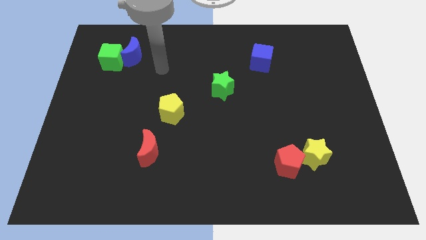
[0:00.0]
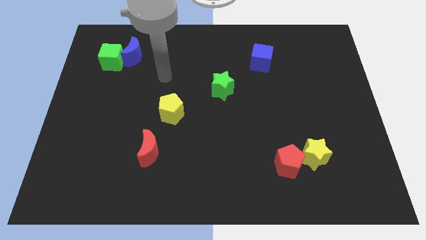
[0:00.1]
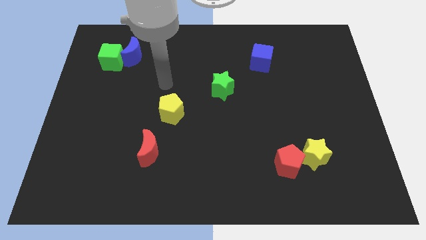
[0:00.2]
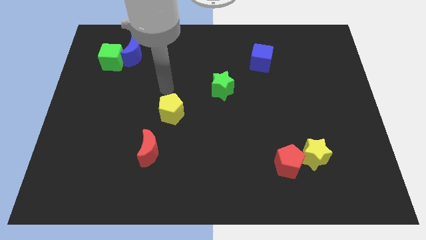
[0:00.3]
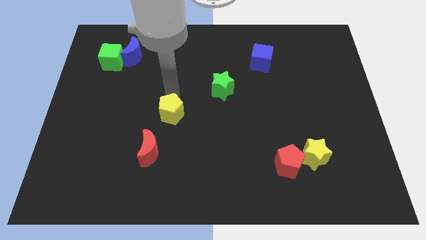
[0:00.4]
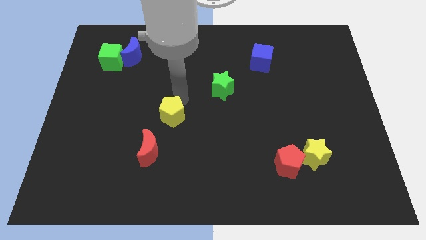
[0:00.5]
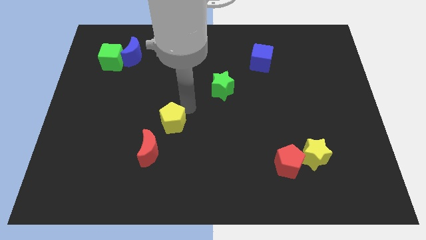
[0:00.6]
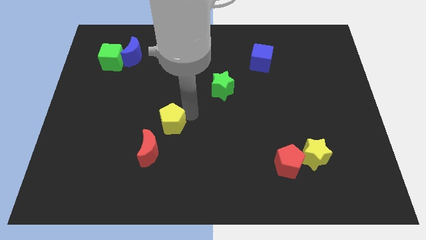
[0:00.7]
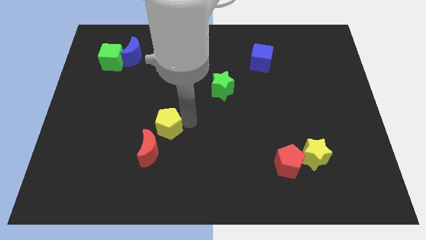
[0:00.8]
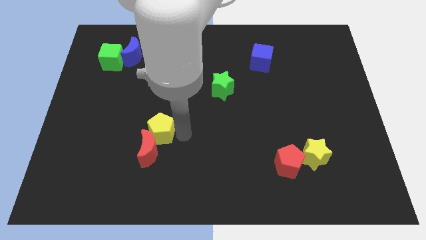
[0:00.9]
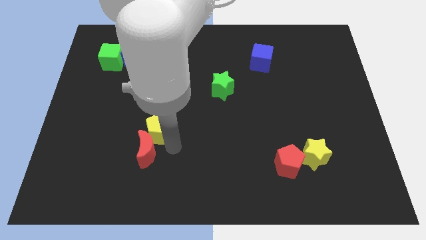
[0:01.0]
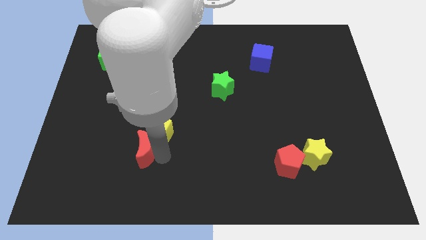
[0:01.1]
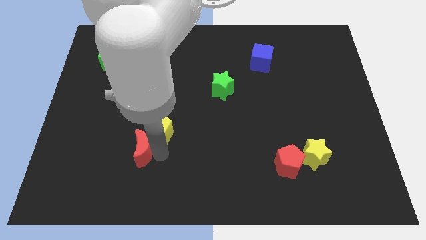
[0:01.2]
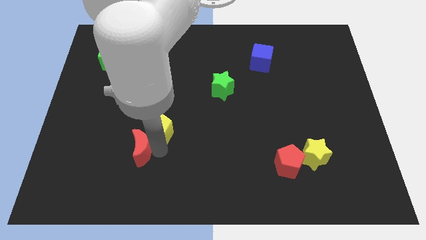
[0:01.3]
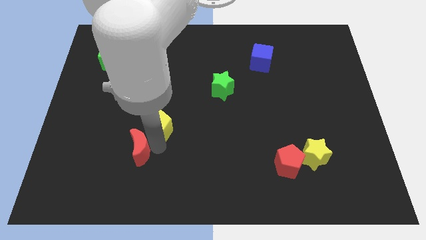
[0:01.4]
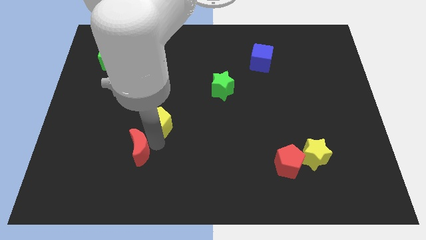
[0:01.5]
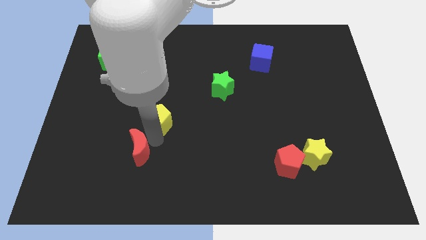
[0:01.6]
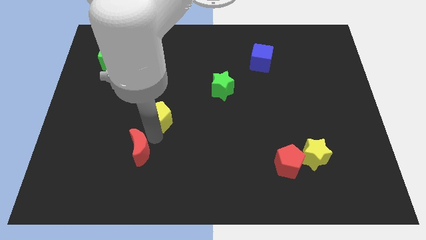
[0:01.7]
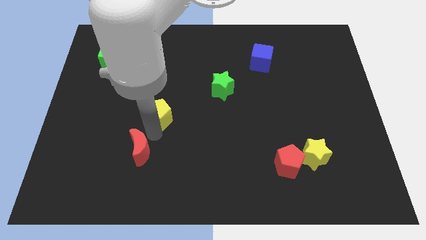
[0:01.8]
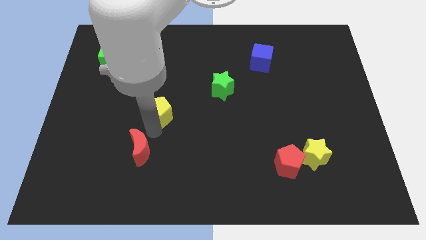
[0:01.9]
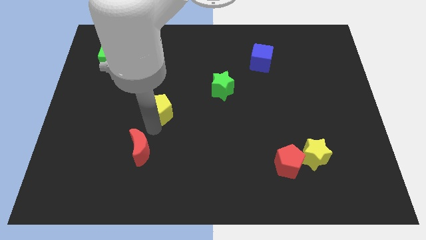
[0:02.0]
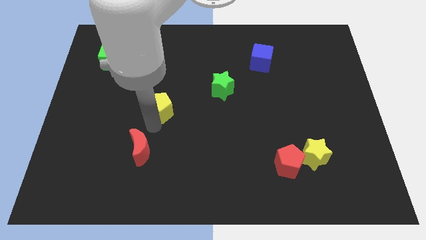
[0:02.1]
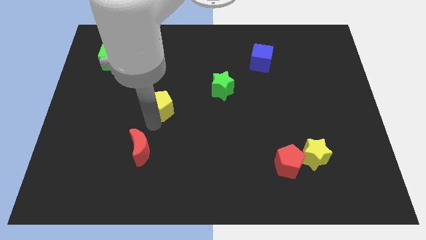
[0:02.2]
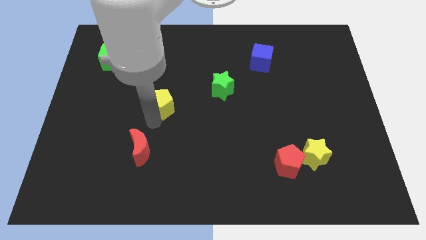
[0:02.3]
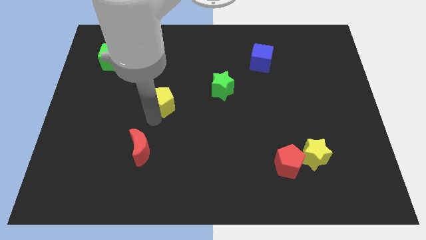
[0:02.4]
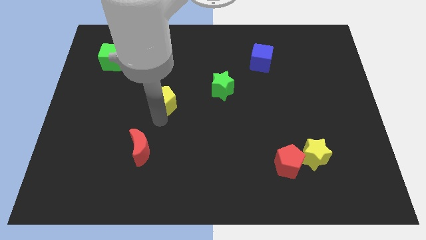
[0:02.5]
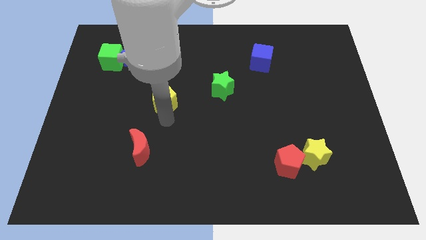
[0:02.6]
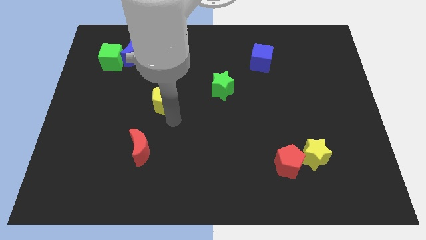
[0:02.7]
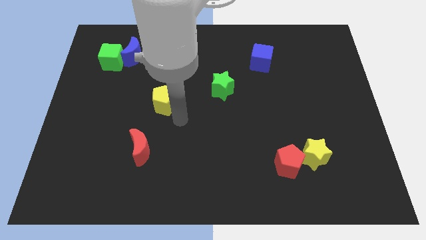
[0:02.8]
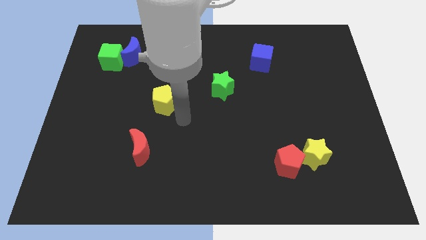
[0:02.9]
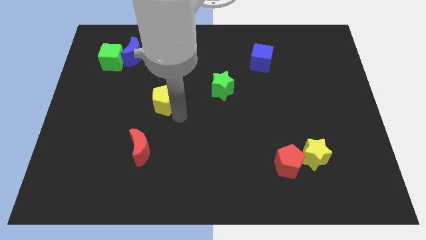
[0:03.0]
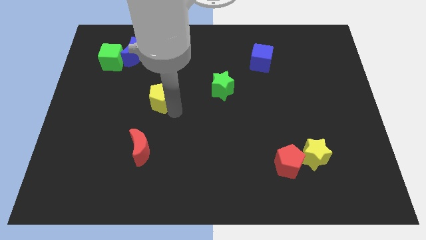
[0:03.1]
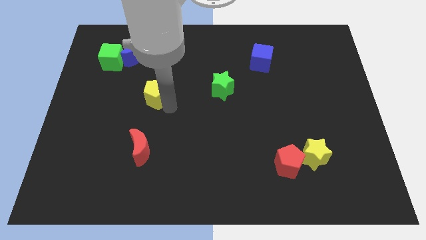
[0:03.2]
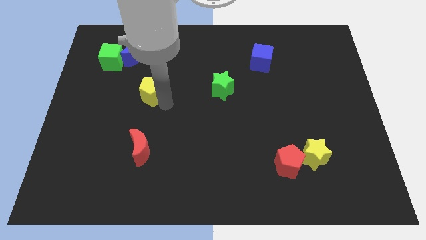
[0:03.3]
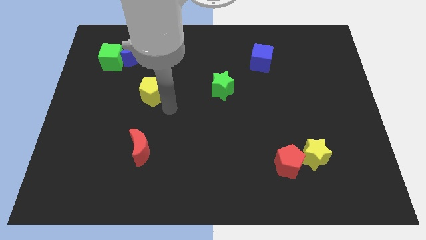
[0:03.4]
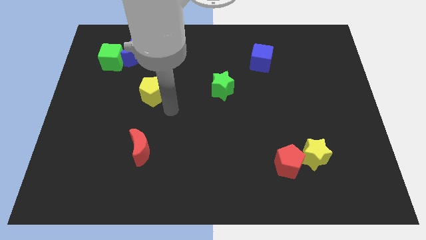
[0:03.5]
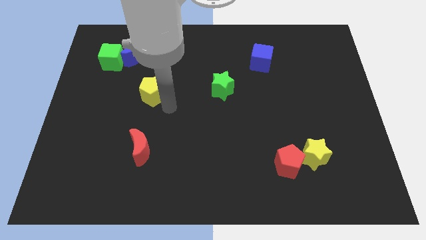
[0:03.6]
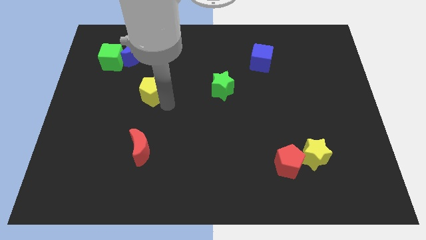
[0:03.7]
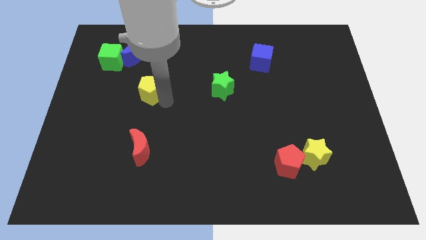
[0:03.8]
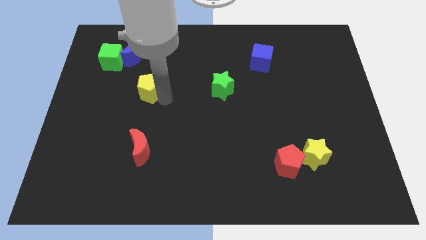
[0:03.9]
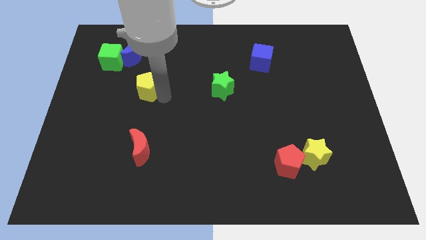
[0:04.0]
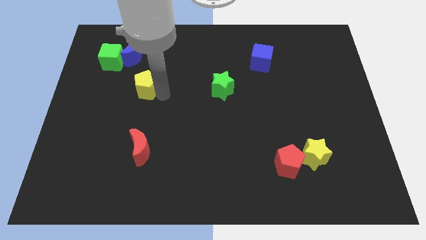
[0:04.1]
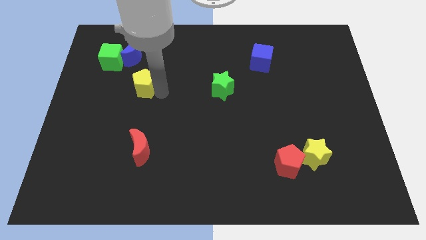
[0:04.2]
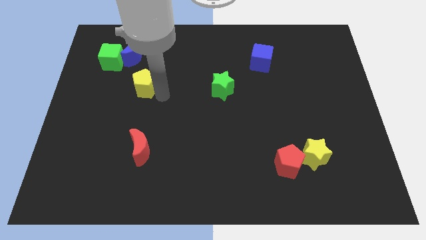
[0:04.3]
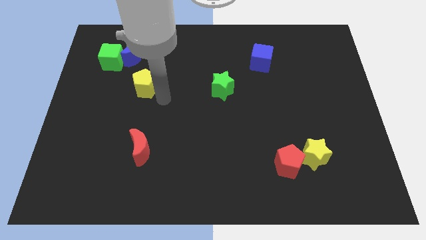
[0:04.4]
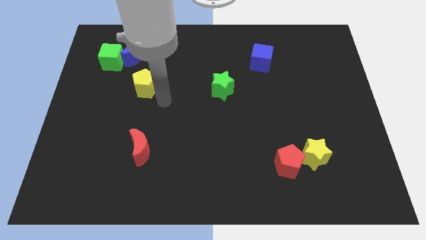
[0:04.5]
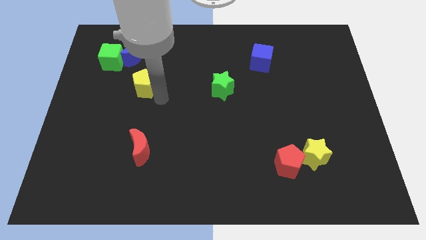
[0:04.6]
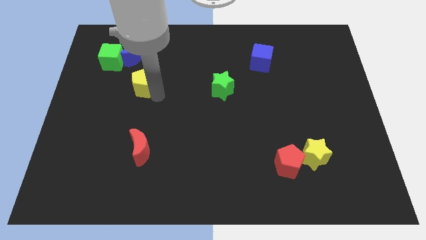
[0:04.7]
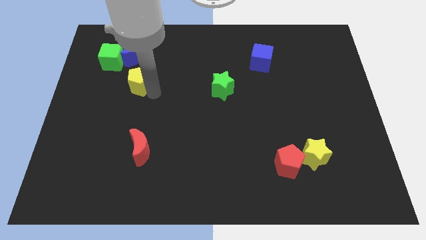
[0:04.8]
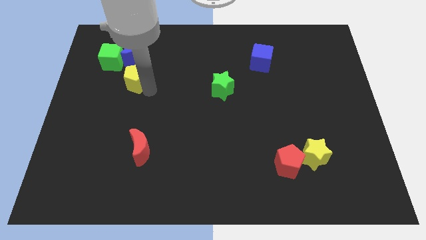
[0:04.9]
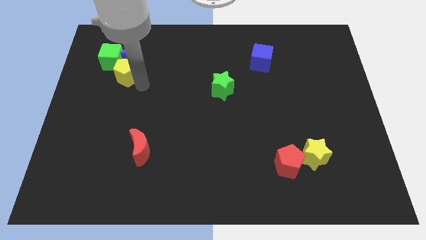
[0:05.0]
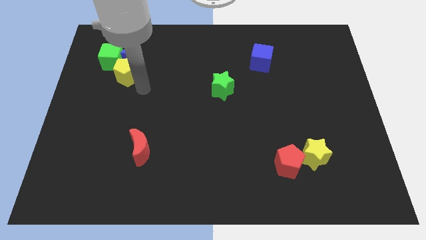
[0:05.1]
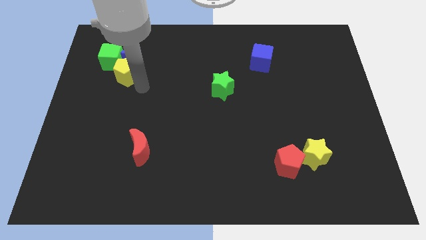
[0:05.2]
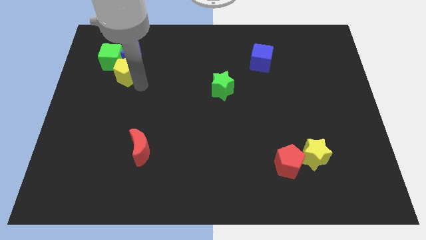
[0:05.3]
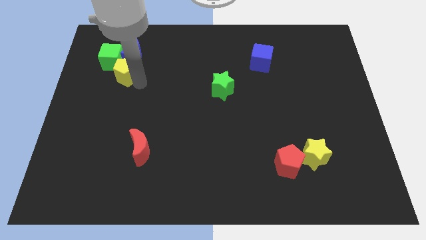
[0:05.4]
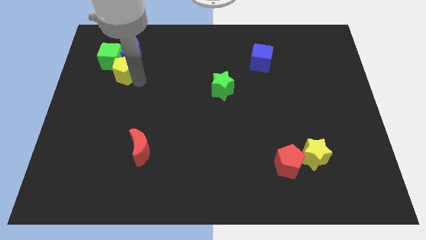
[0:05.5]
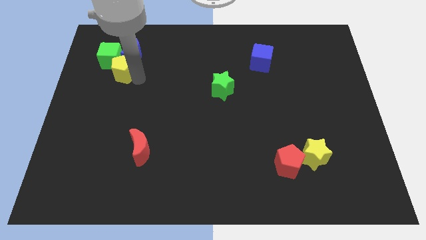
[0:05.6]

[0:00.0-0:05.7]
push the yellow pentagon to the green cube

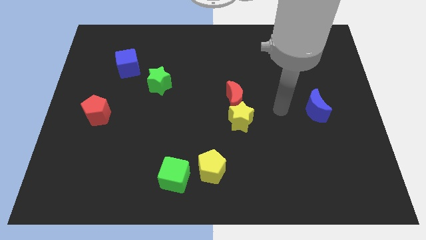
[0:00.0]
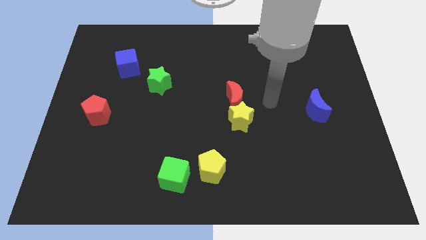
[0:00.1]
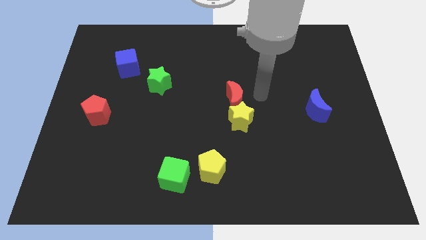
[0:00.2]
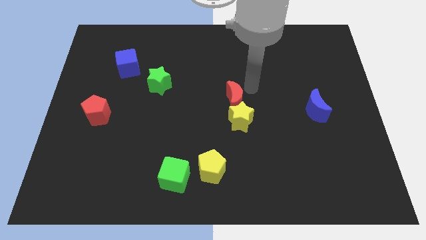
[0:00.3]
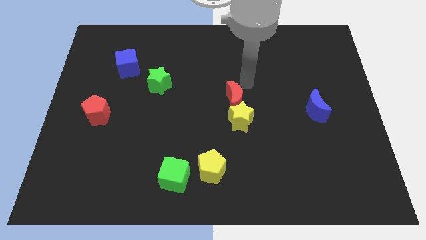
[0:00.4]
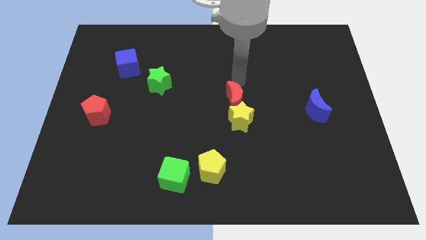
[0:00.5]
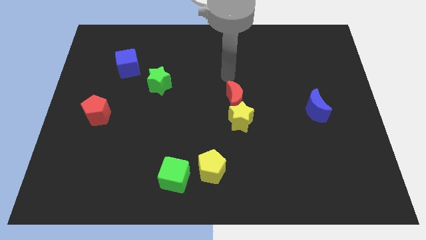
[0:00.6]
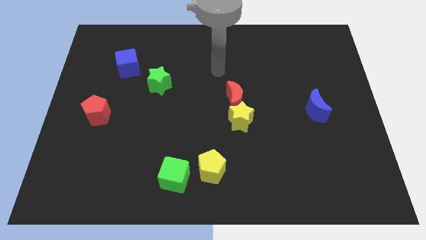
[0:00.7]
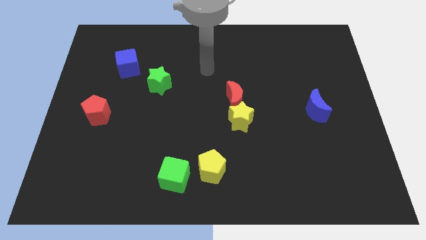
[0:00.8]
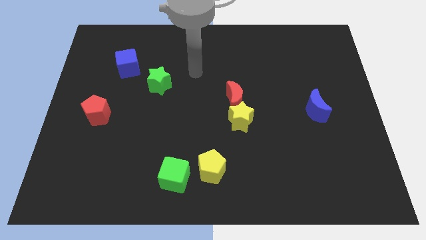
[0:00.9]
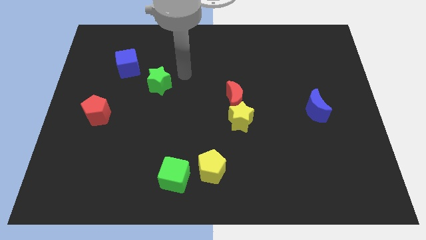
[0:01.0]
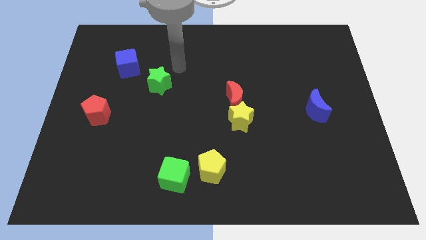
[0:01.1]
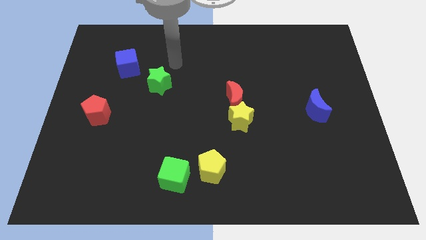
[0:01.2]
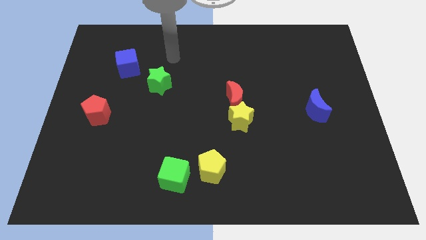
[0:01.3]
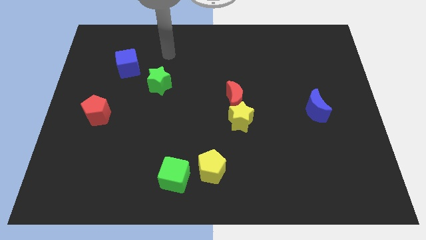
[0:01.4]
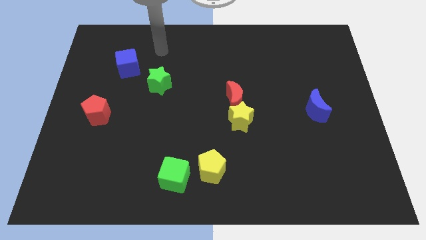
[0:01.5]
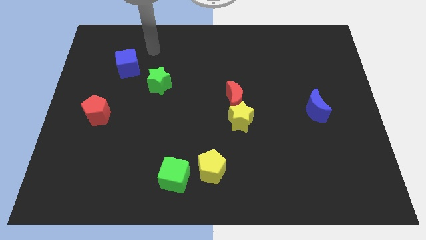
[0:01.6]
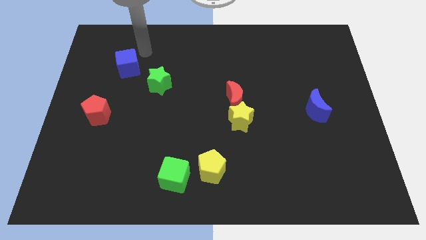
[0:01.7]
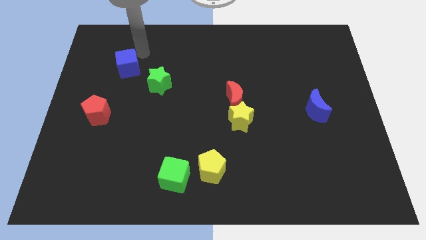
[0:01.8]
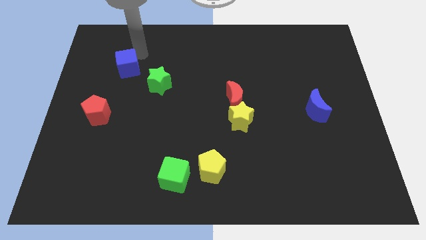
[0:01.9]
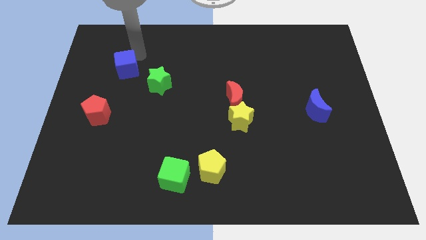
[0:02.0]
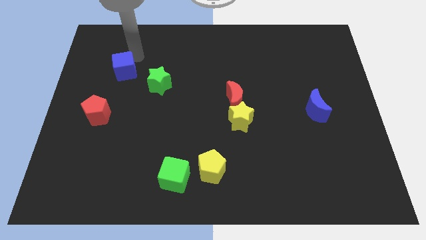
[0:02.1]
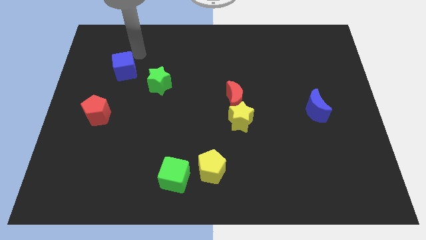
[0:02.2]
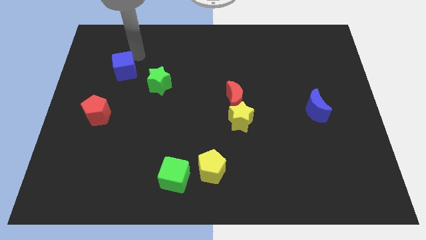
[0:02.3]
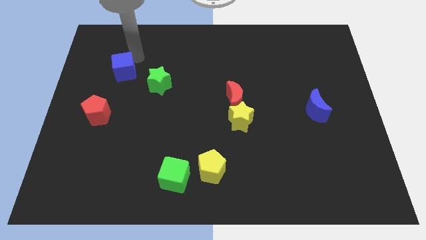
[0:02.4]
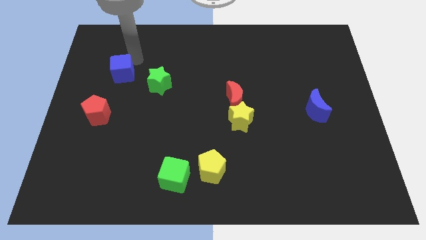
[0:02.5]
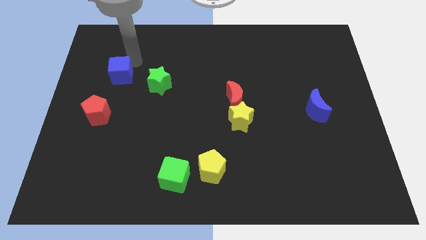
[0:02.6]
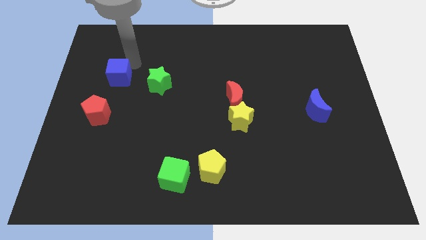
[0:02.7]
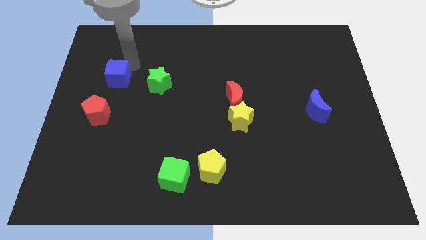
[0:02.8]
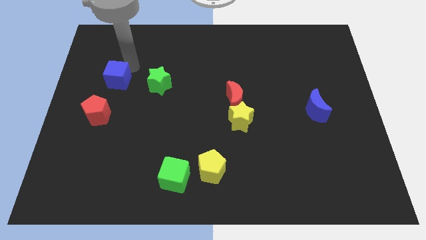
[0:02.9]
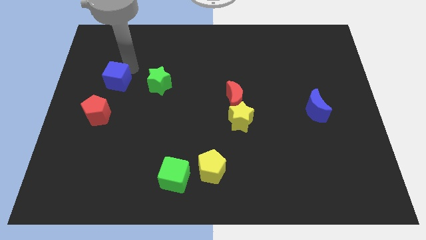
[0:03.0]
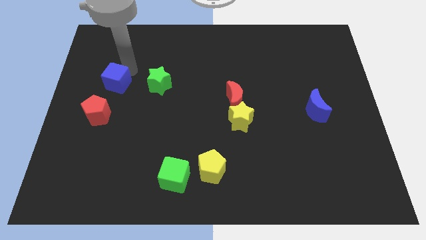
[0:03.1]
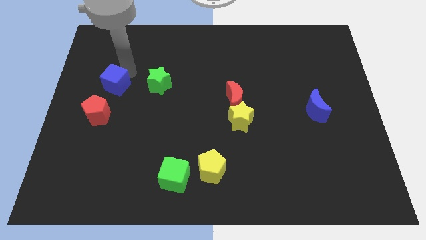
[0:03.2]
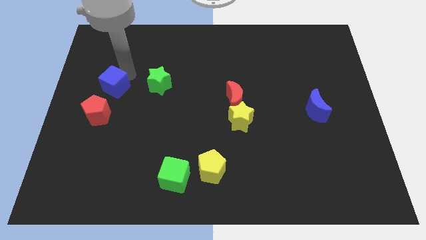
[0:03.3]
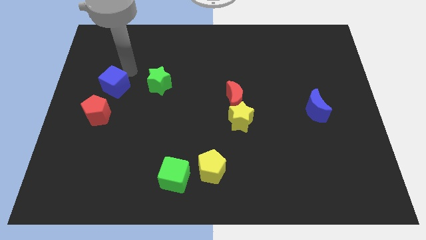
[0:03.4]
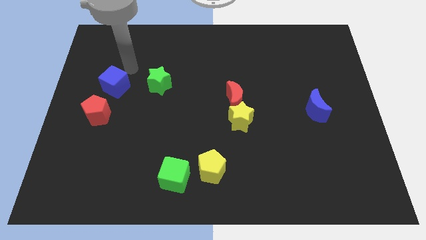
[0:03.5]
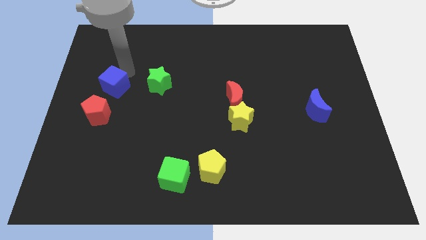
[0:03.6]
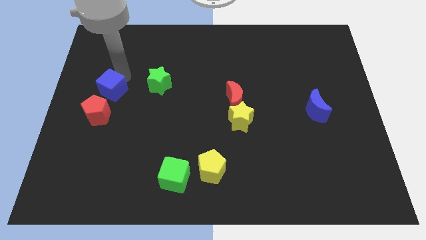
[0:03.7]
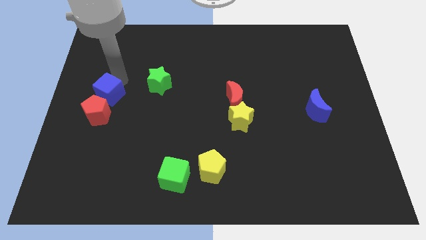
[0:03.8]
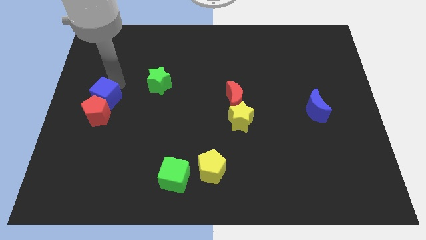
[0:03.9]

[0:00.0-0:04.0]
slide the blue cube towards the red pentagon
